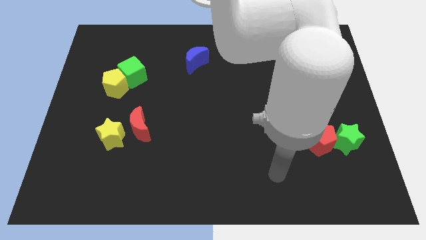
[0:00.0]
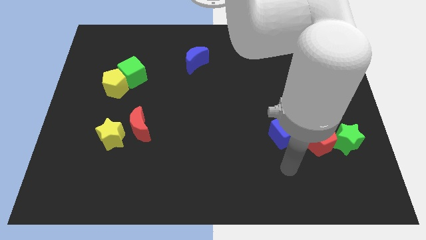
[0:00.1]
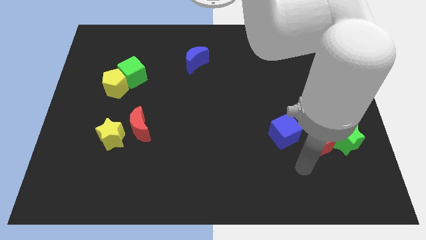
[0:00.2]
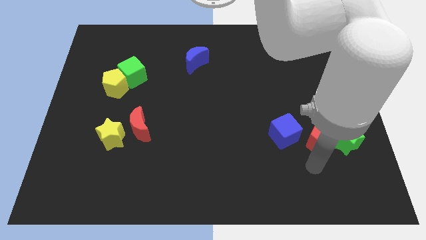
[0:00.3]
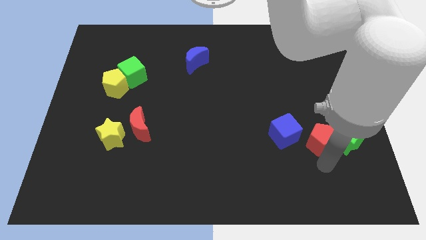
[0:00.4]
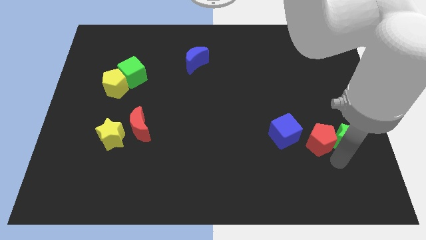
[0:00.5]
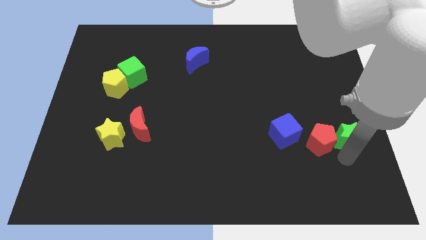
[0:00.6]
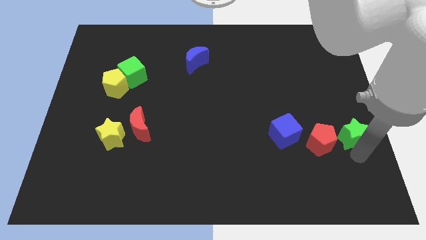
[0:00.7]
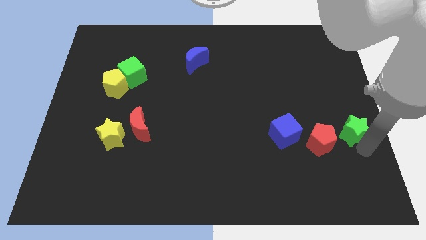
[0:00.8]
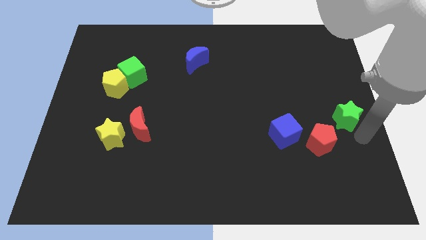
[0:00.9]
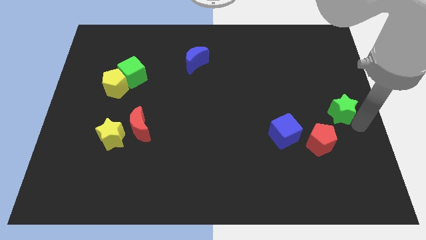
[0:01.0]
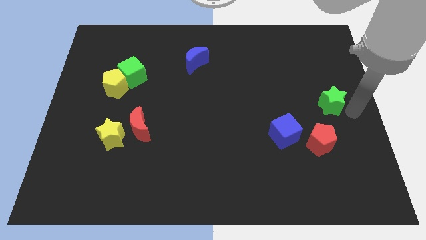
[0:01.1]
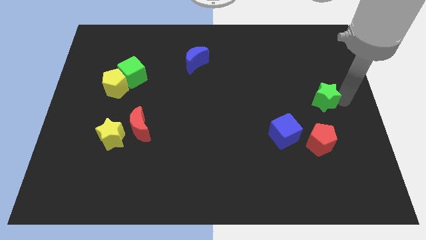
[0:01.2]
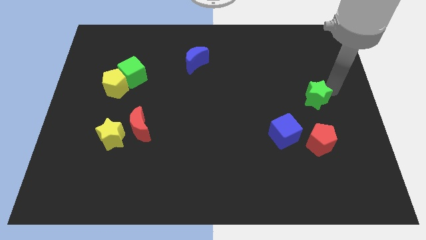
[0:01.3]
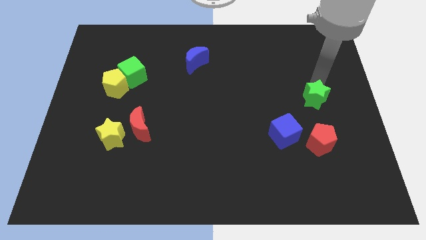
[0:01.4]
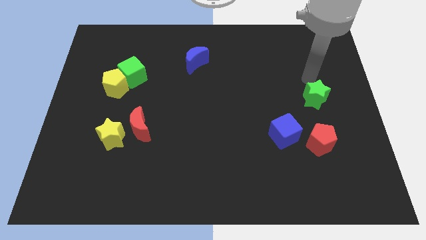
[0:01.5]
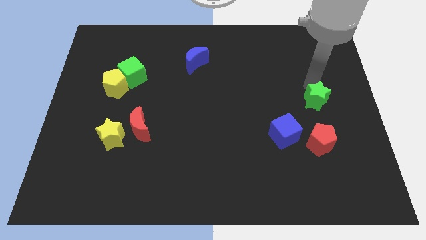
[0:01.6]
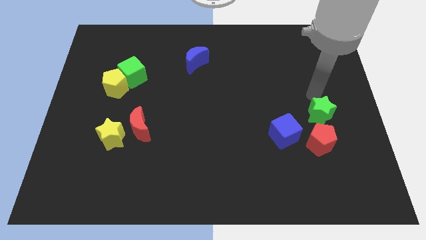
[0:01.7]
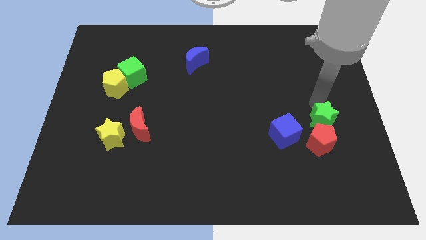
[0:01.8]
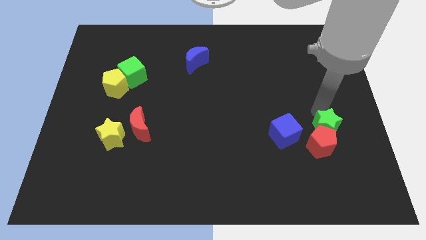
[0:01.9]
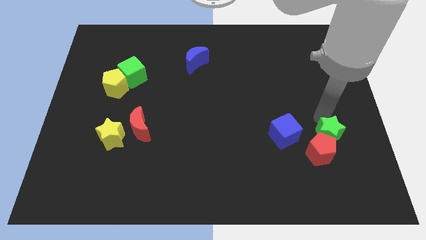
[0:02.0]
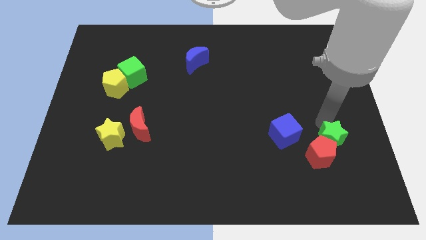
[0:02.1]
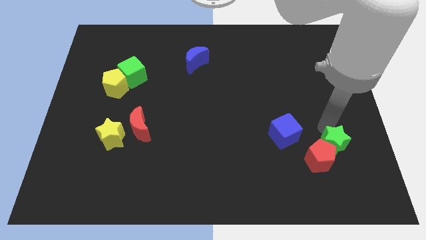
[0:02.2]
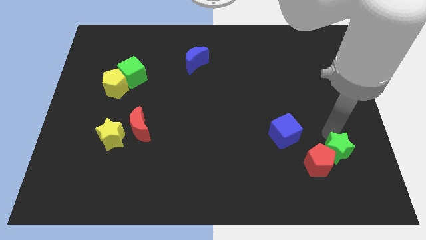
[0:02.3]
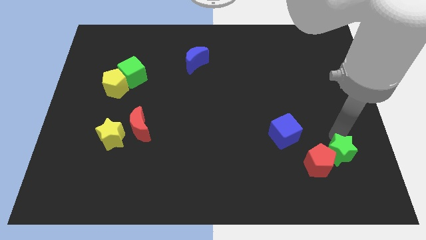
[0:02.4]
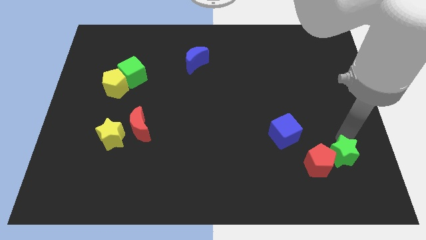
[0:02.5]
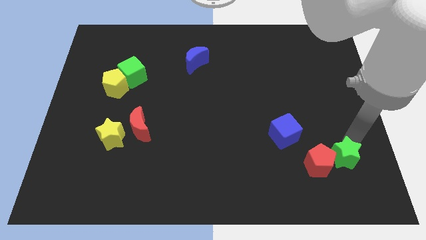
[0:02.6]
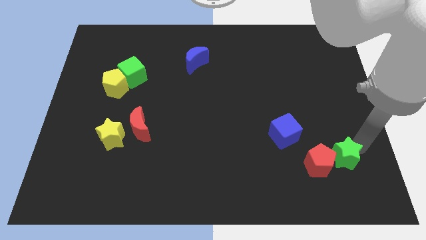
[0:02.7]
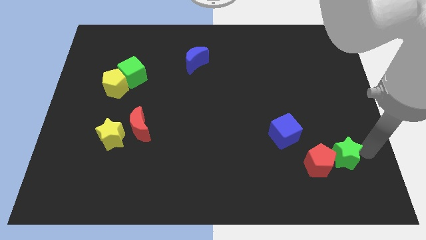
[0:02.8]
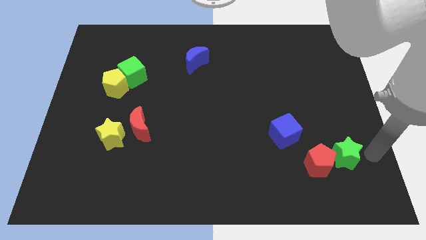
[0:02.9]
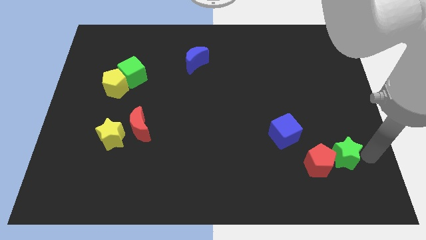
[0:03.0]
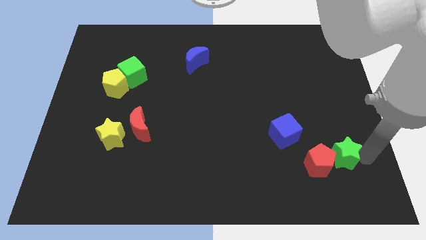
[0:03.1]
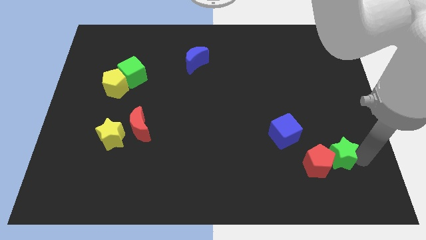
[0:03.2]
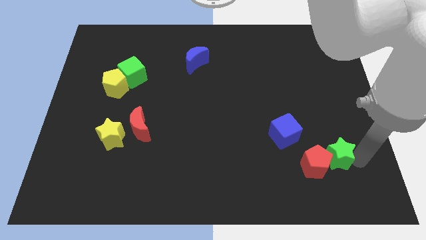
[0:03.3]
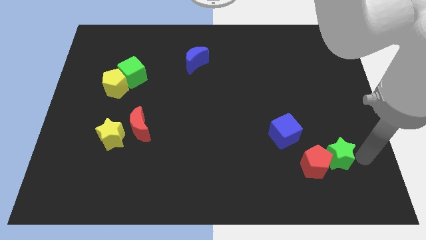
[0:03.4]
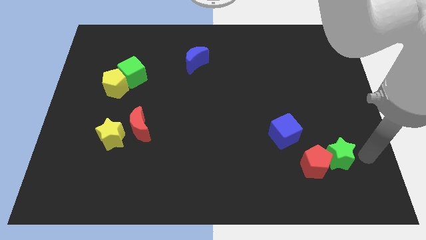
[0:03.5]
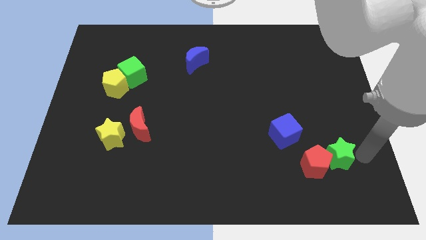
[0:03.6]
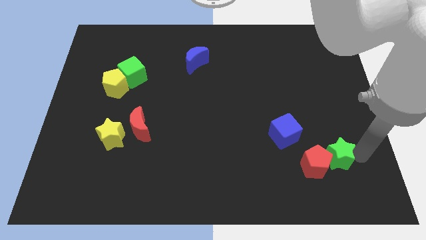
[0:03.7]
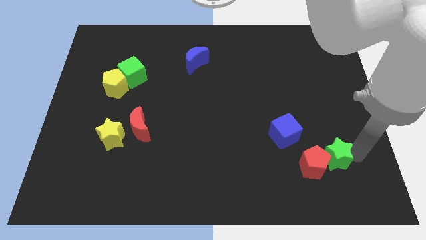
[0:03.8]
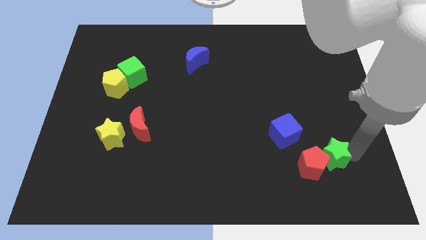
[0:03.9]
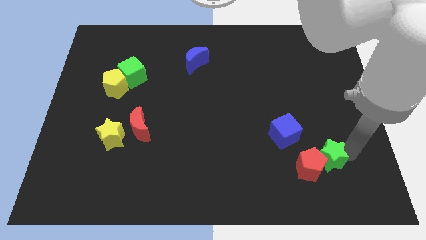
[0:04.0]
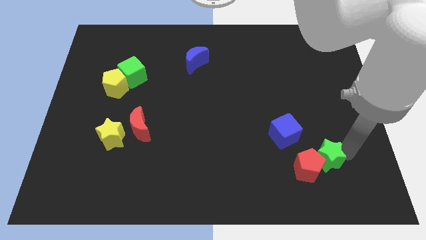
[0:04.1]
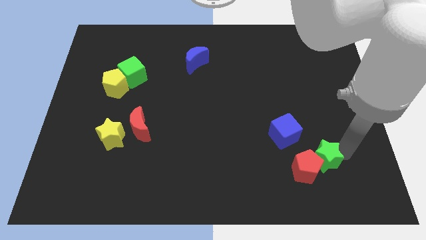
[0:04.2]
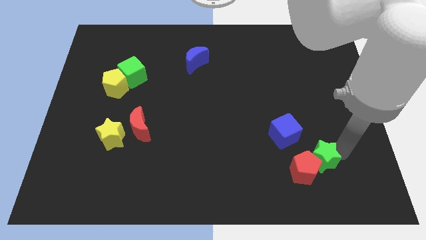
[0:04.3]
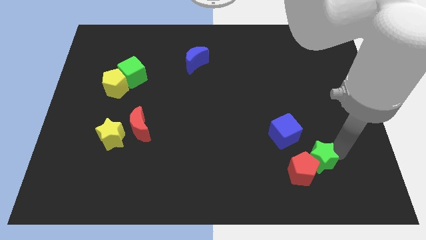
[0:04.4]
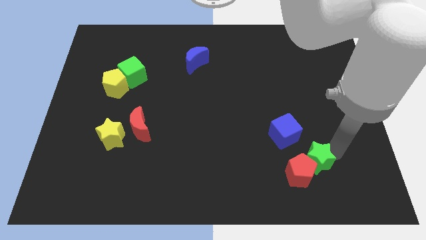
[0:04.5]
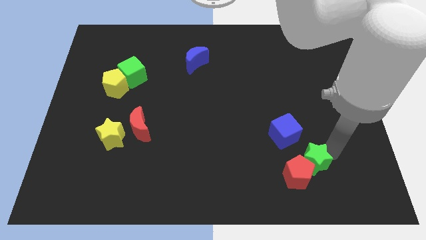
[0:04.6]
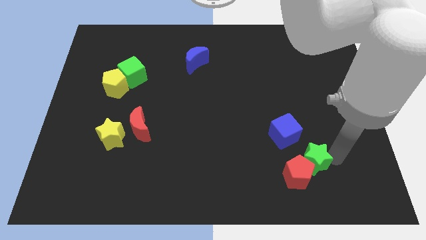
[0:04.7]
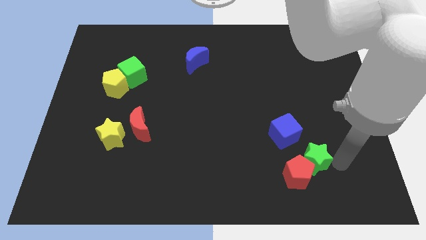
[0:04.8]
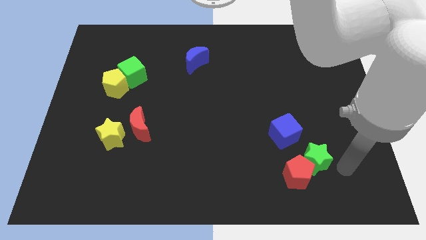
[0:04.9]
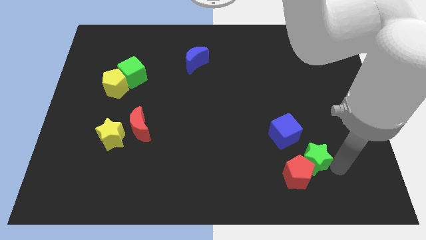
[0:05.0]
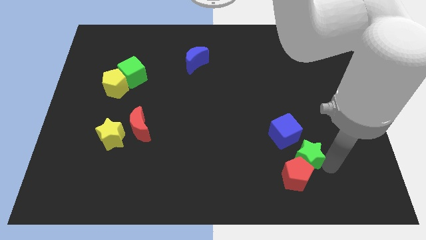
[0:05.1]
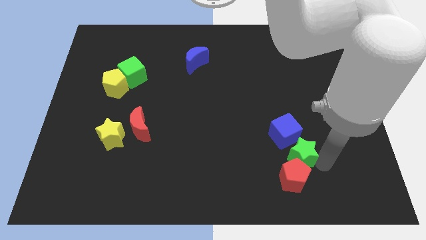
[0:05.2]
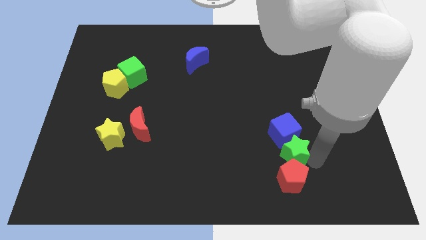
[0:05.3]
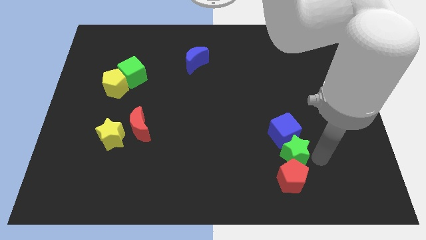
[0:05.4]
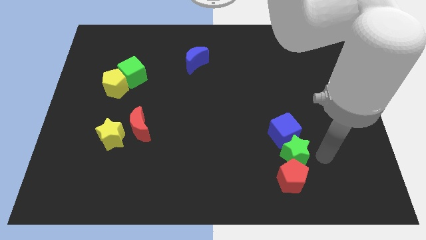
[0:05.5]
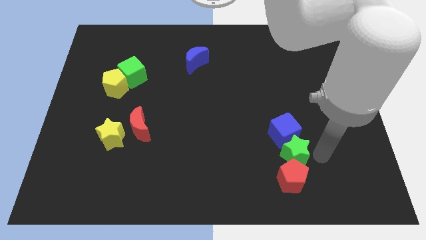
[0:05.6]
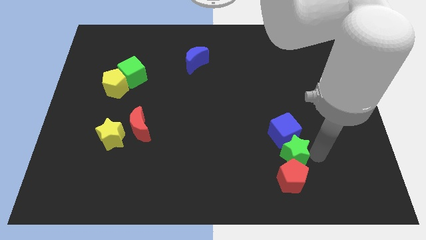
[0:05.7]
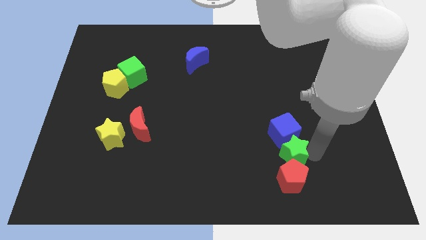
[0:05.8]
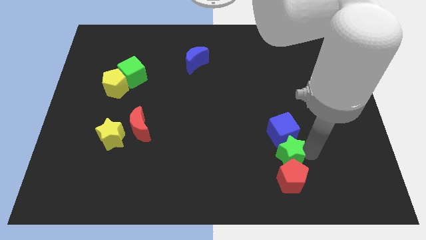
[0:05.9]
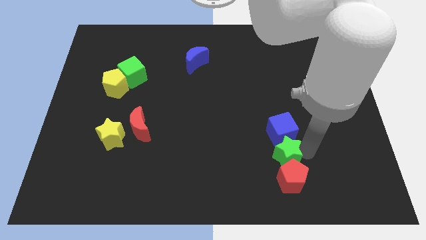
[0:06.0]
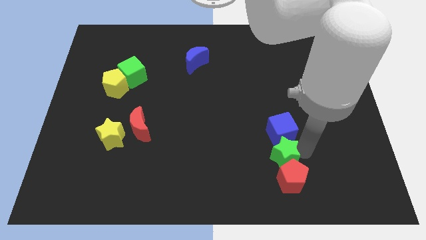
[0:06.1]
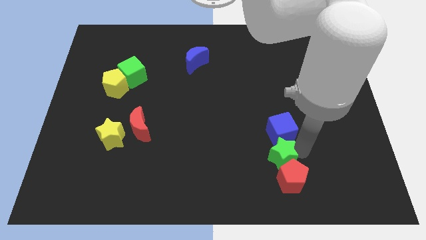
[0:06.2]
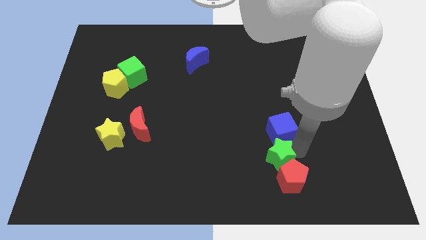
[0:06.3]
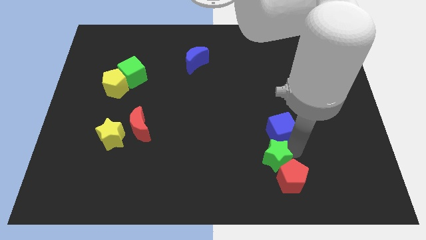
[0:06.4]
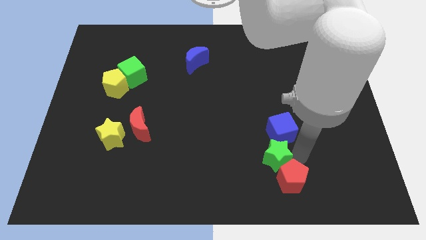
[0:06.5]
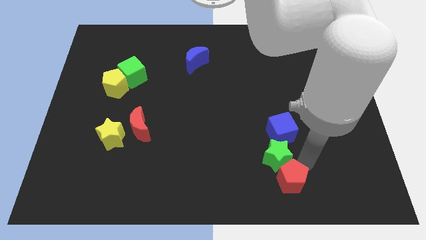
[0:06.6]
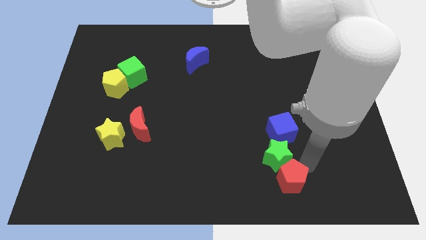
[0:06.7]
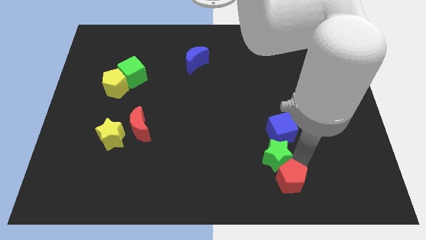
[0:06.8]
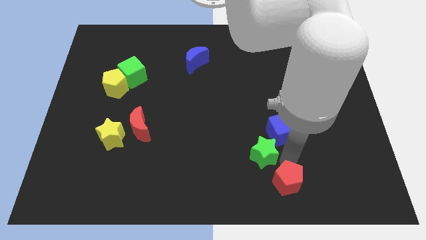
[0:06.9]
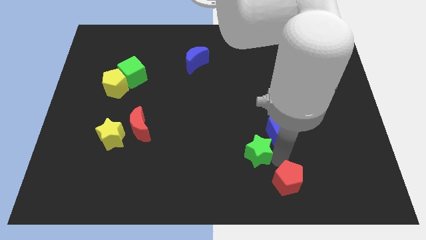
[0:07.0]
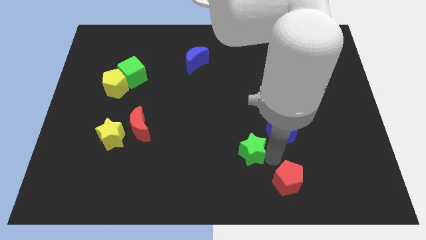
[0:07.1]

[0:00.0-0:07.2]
slide the green star left

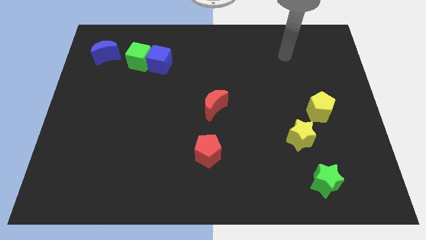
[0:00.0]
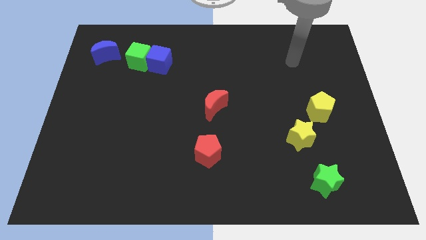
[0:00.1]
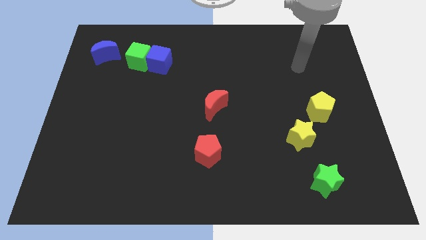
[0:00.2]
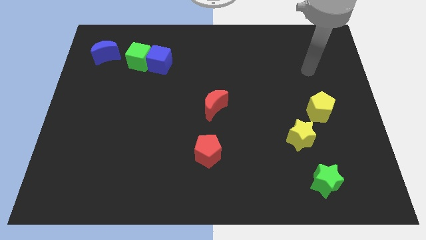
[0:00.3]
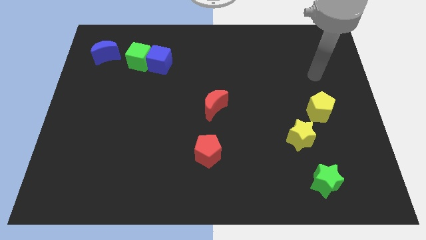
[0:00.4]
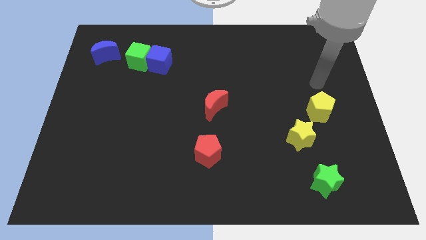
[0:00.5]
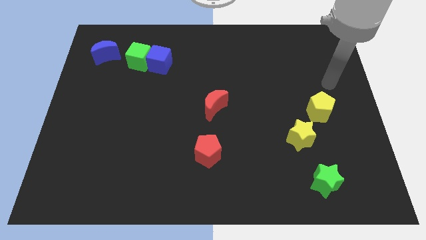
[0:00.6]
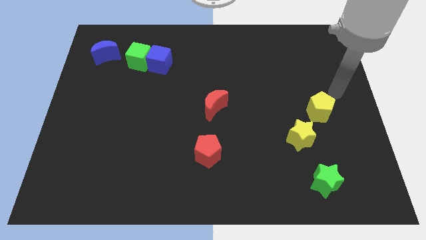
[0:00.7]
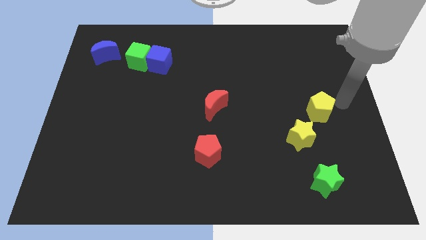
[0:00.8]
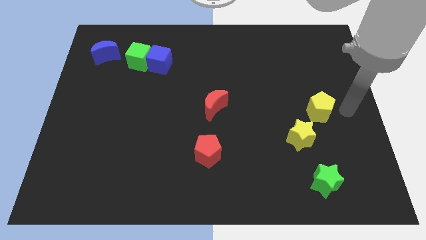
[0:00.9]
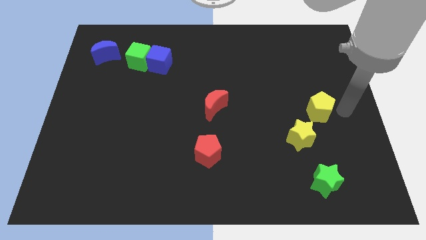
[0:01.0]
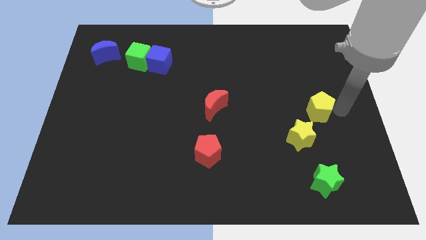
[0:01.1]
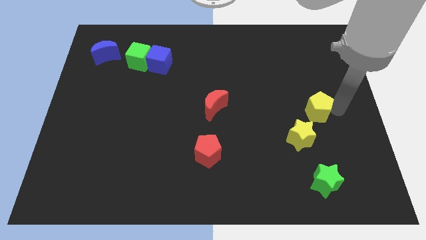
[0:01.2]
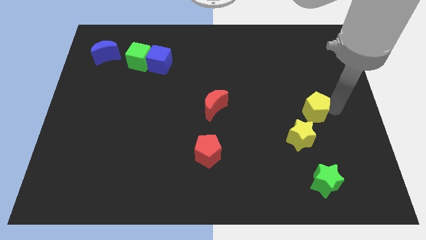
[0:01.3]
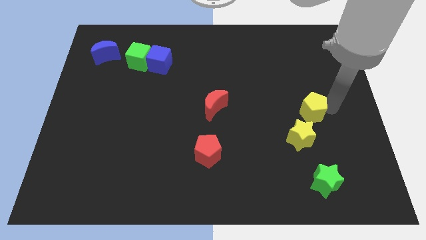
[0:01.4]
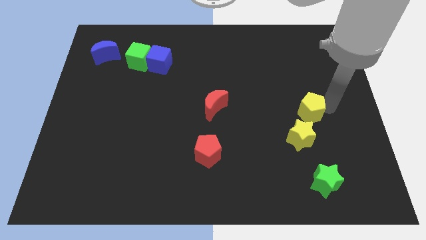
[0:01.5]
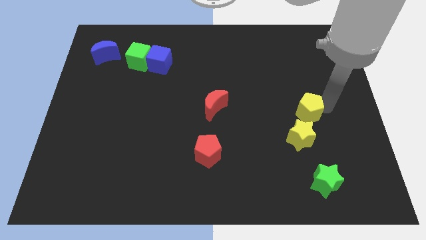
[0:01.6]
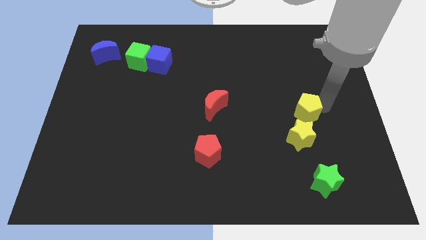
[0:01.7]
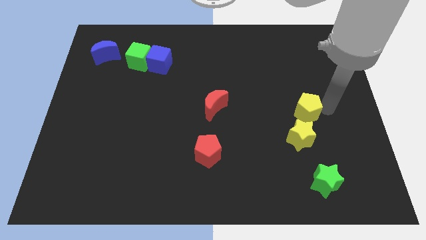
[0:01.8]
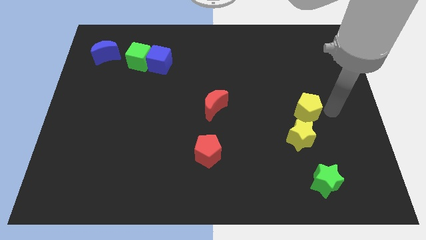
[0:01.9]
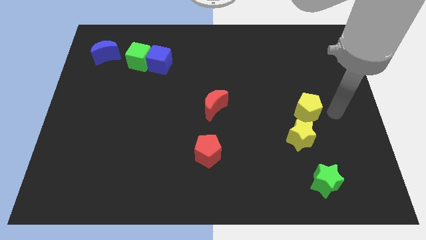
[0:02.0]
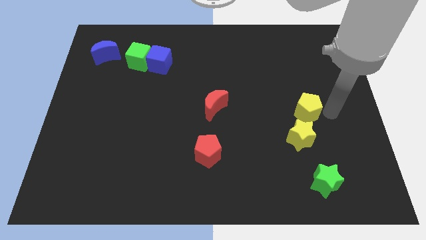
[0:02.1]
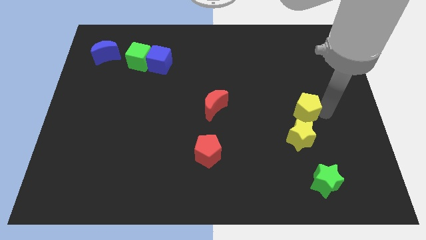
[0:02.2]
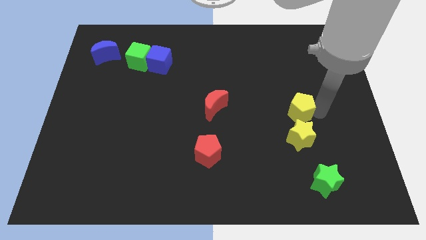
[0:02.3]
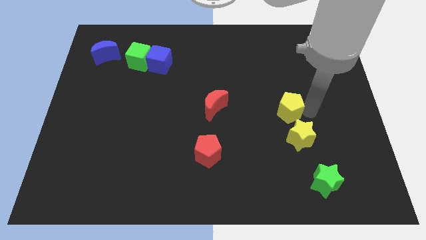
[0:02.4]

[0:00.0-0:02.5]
push the yellow pentagon to the left somewhat
